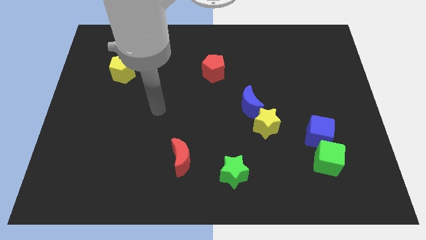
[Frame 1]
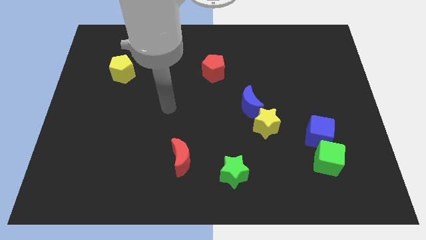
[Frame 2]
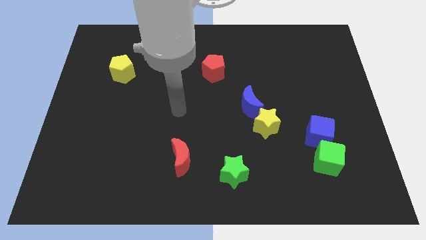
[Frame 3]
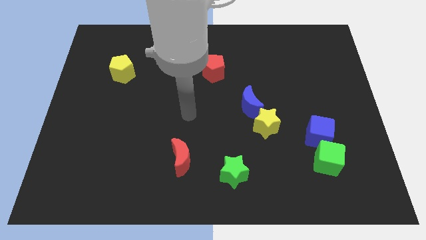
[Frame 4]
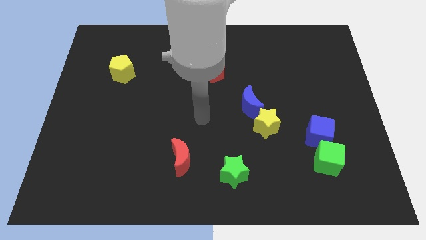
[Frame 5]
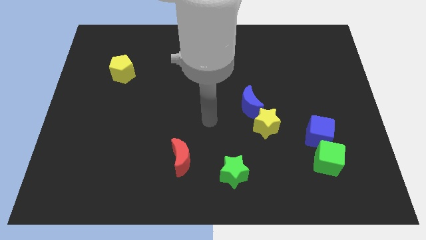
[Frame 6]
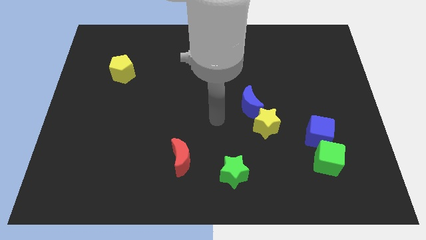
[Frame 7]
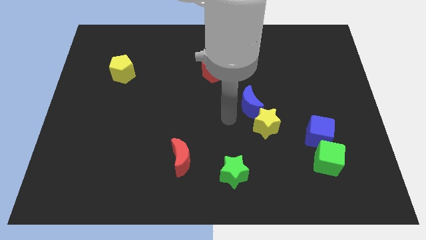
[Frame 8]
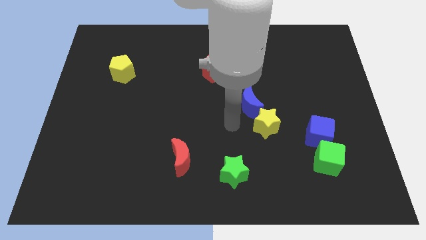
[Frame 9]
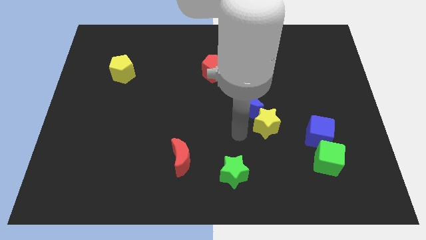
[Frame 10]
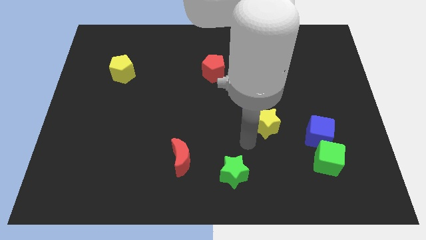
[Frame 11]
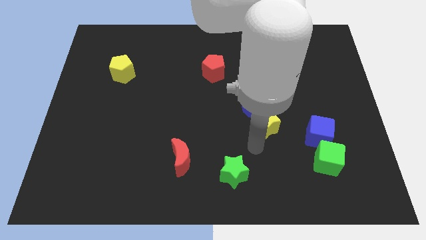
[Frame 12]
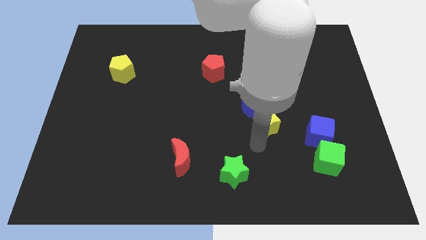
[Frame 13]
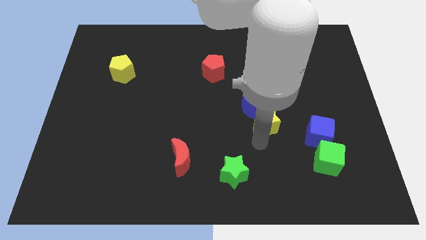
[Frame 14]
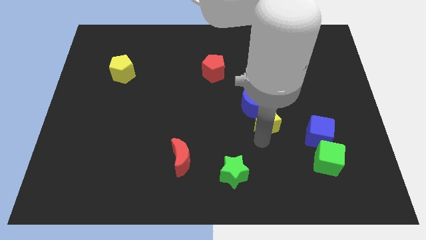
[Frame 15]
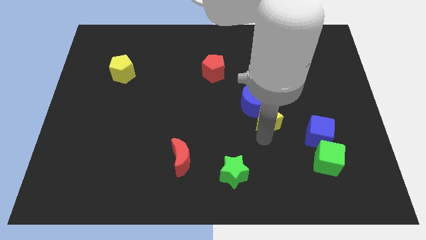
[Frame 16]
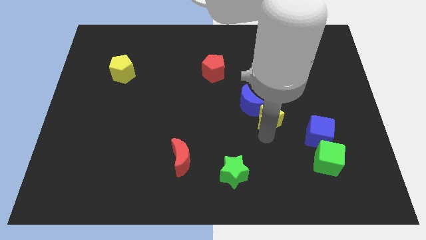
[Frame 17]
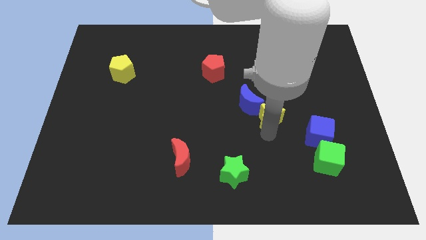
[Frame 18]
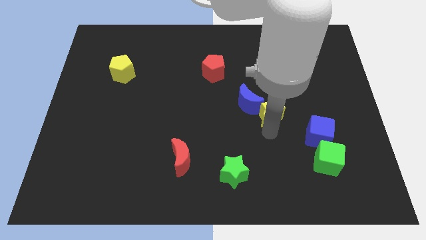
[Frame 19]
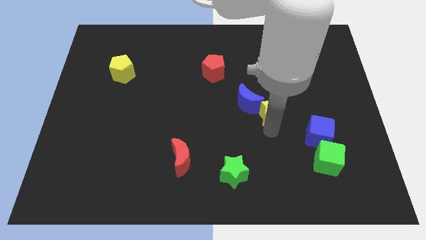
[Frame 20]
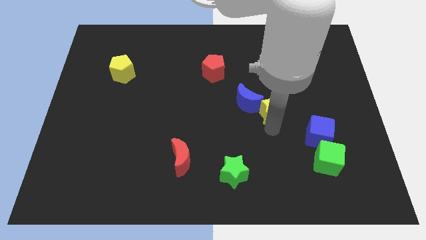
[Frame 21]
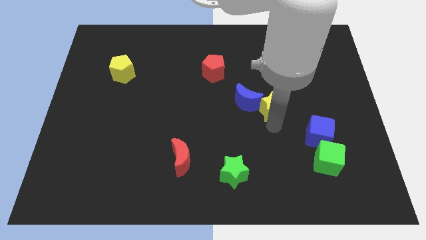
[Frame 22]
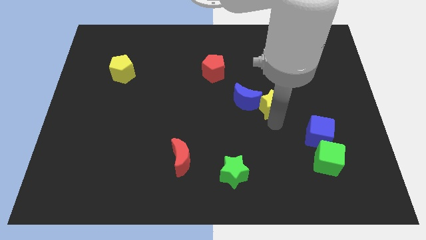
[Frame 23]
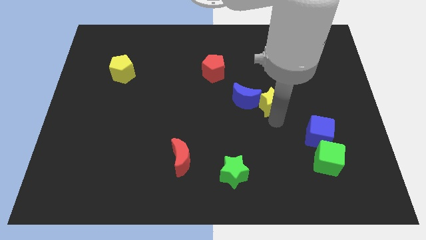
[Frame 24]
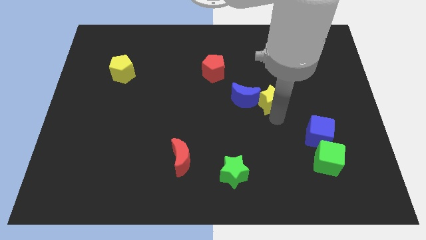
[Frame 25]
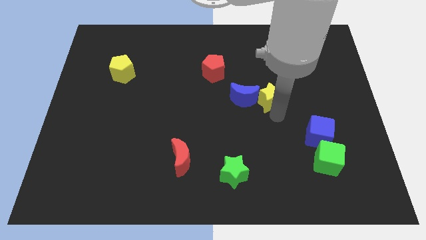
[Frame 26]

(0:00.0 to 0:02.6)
slightly slide the yellow star up

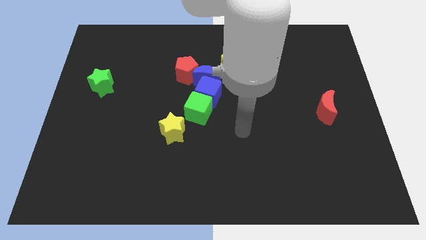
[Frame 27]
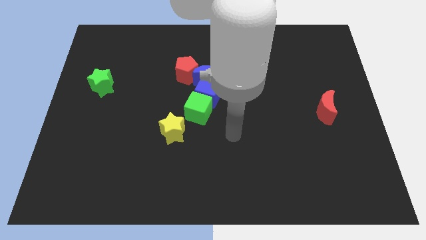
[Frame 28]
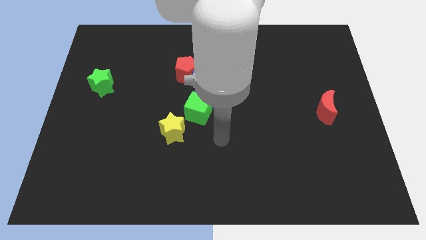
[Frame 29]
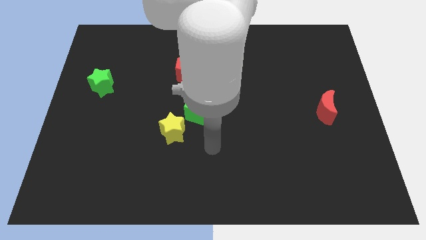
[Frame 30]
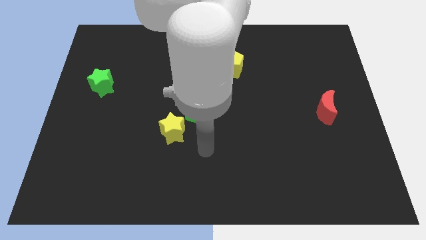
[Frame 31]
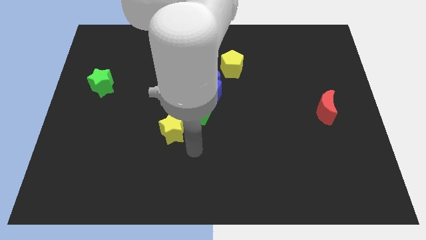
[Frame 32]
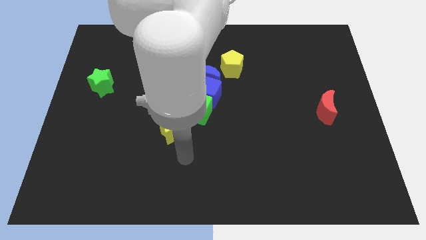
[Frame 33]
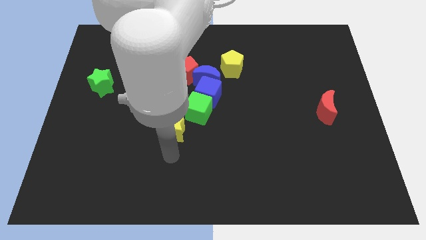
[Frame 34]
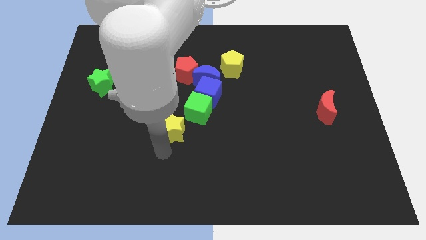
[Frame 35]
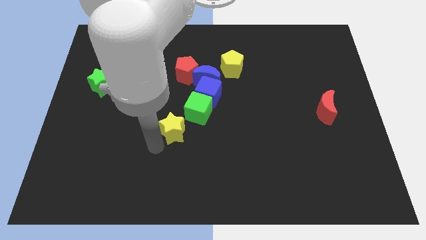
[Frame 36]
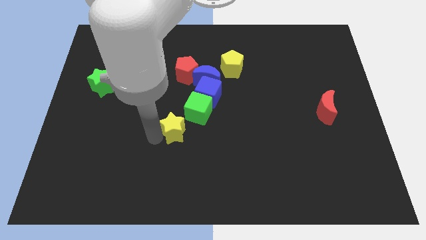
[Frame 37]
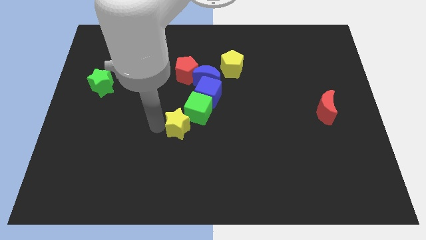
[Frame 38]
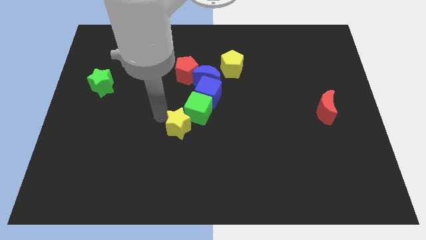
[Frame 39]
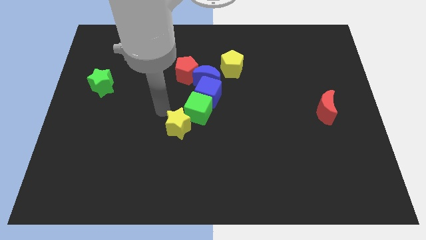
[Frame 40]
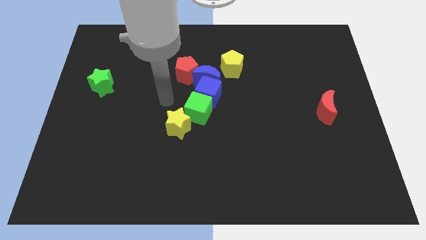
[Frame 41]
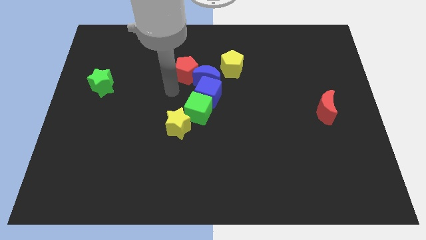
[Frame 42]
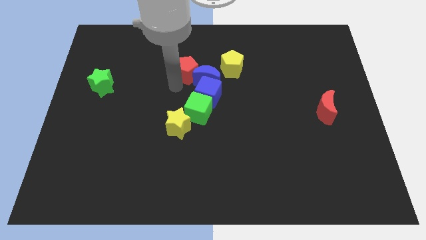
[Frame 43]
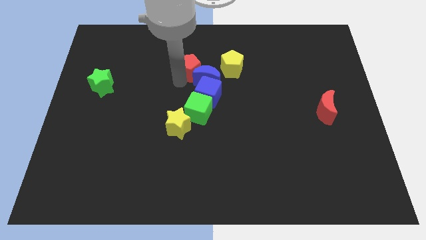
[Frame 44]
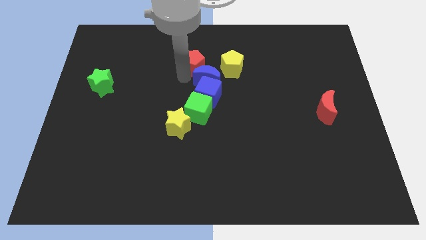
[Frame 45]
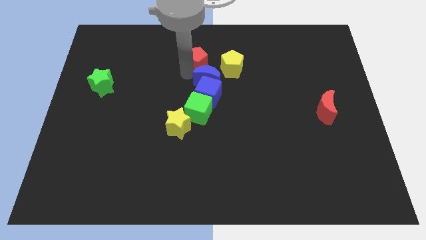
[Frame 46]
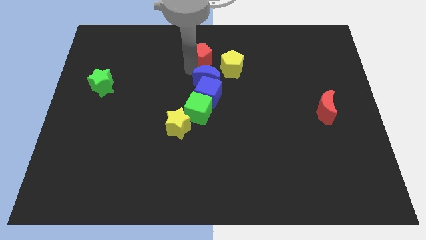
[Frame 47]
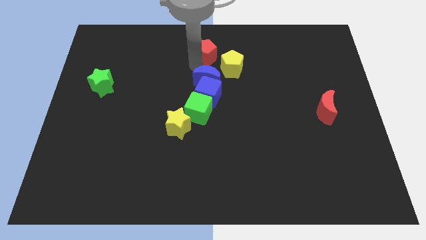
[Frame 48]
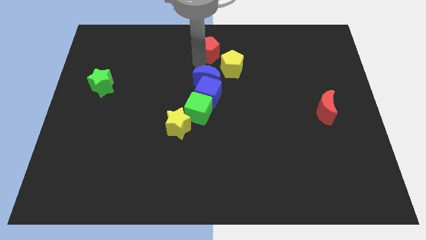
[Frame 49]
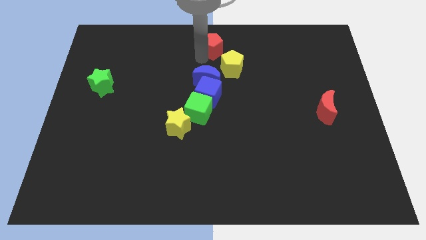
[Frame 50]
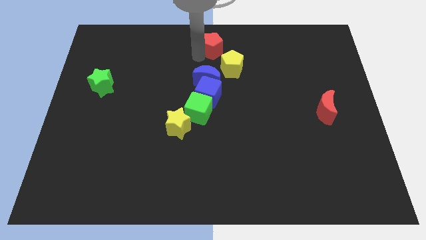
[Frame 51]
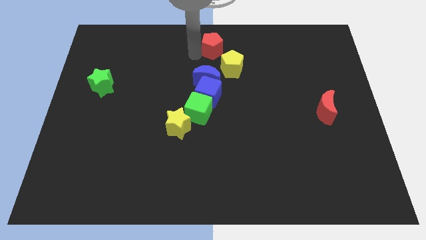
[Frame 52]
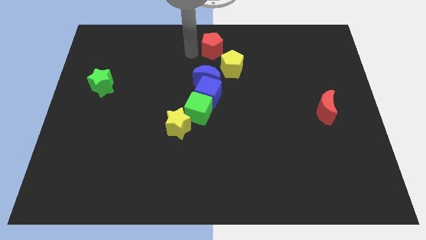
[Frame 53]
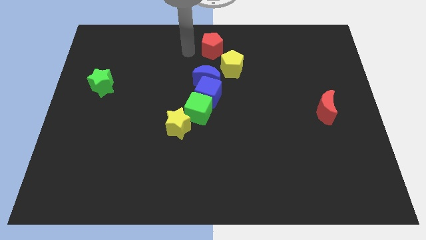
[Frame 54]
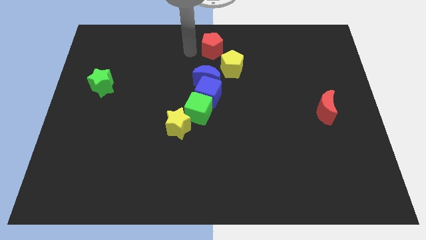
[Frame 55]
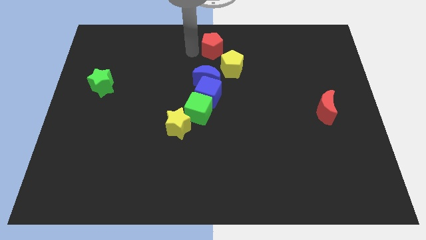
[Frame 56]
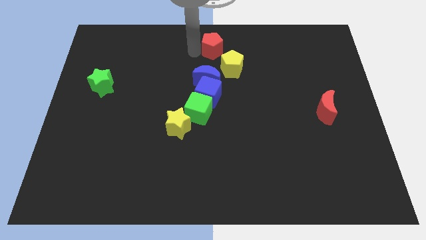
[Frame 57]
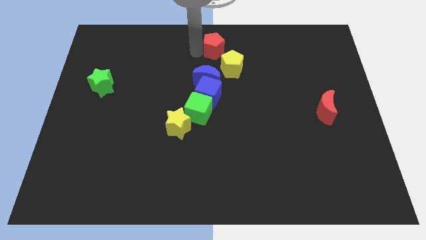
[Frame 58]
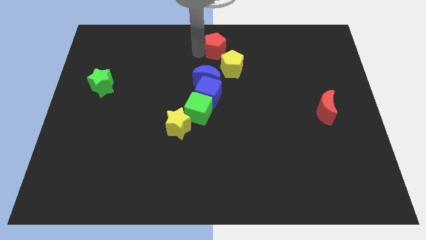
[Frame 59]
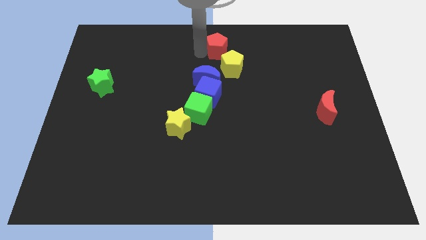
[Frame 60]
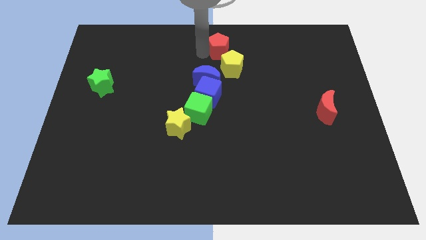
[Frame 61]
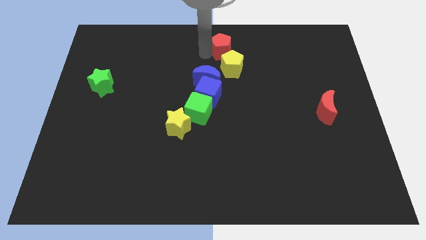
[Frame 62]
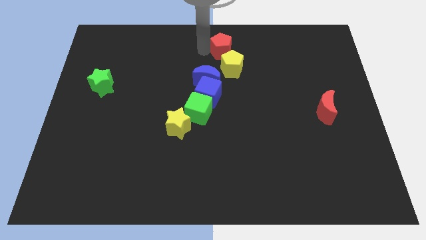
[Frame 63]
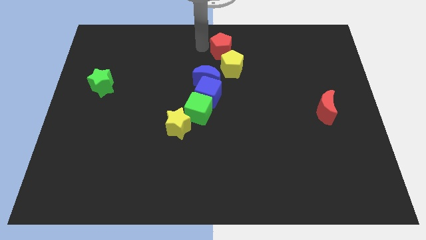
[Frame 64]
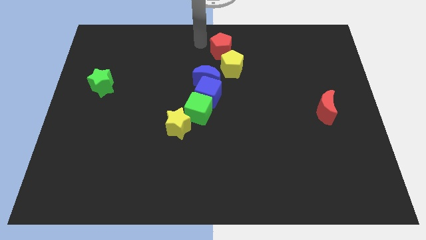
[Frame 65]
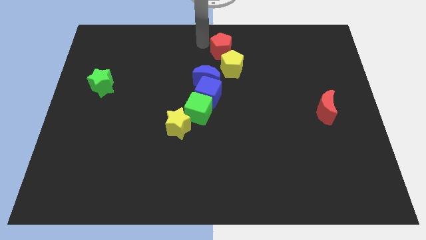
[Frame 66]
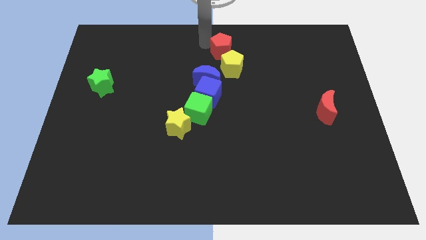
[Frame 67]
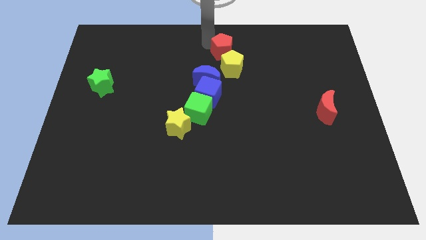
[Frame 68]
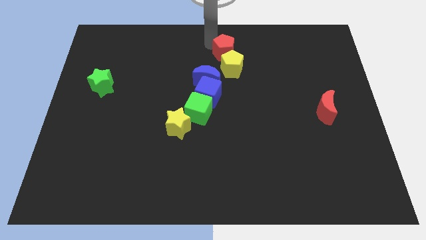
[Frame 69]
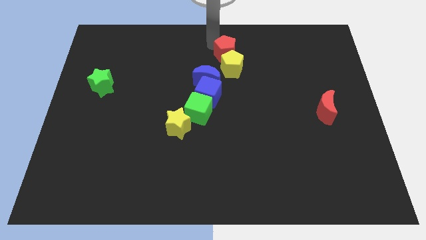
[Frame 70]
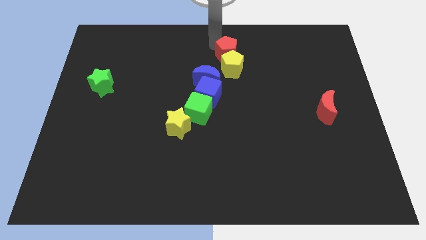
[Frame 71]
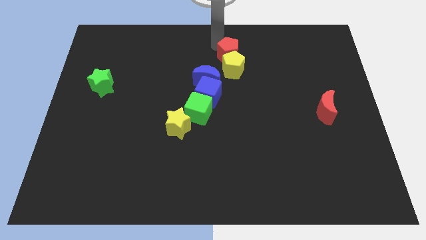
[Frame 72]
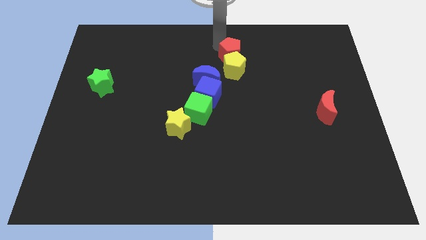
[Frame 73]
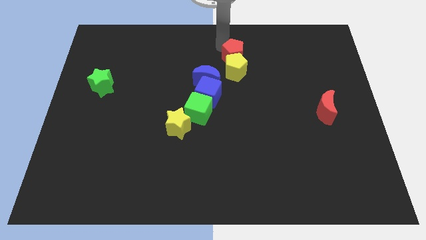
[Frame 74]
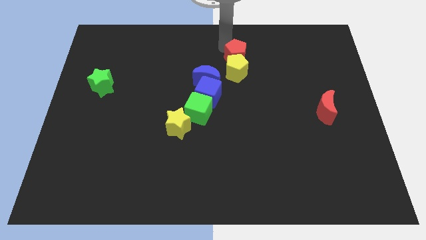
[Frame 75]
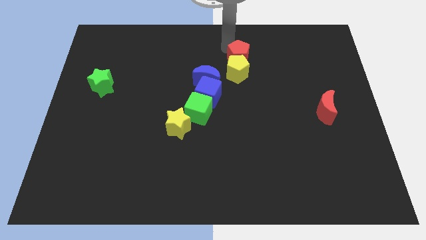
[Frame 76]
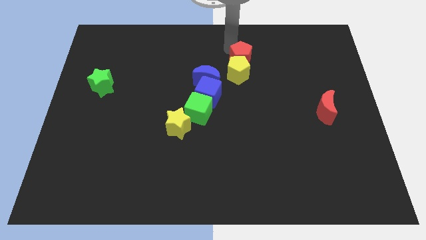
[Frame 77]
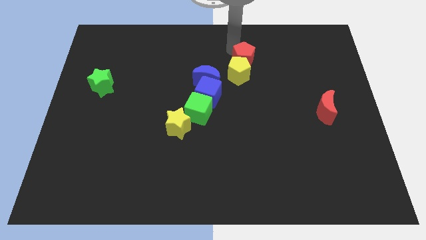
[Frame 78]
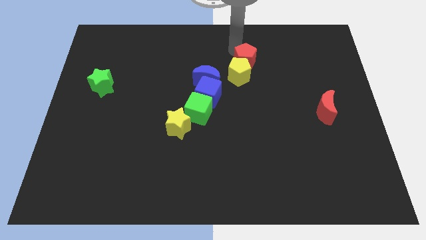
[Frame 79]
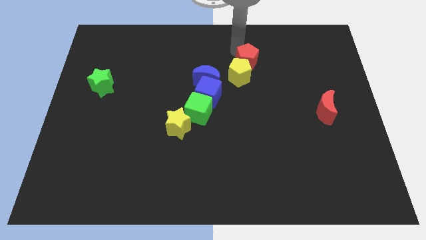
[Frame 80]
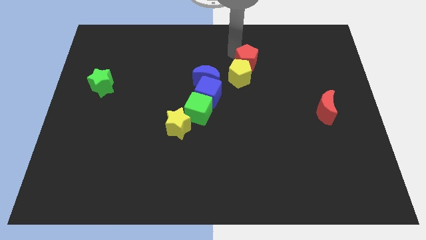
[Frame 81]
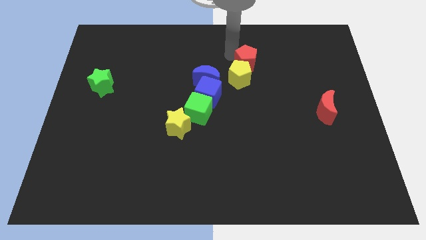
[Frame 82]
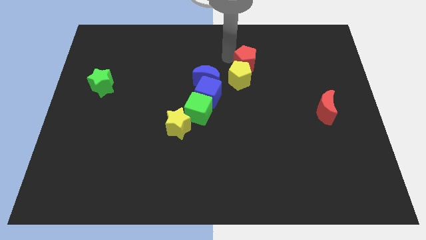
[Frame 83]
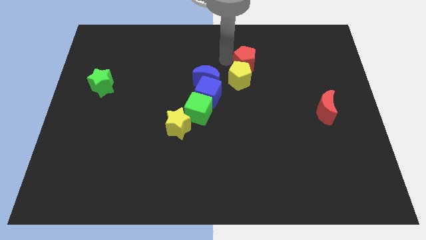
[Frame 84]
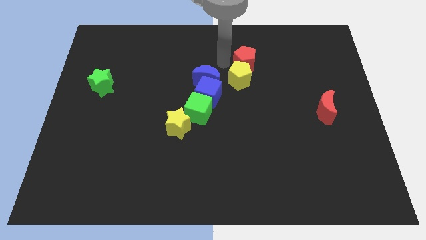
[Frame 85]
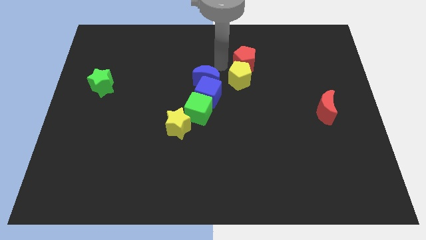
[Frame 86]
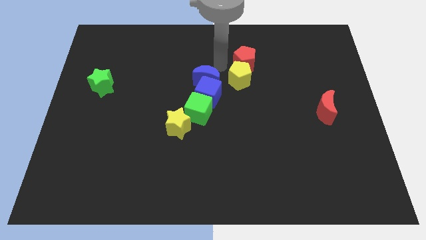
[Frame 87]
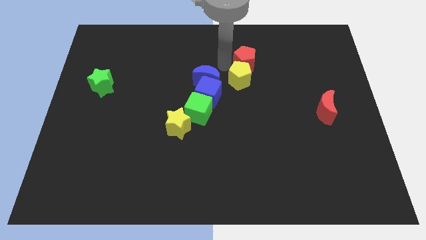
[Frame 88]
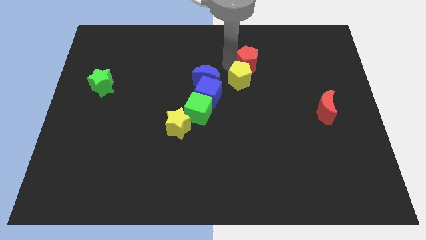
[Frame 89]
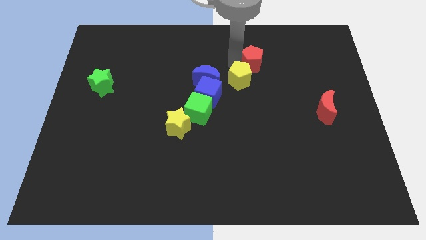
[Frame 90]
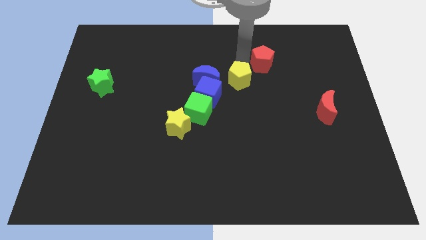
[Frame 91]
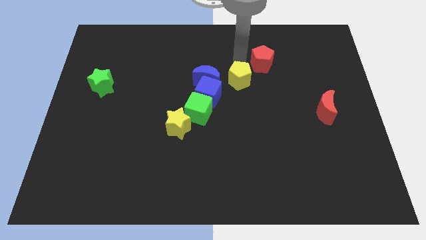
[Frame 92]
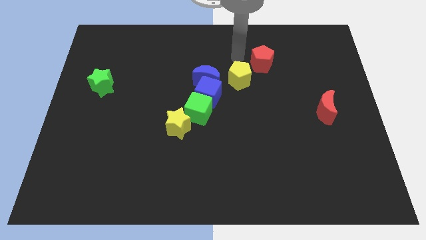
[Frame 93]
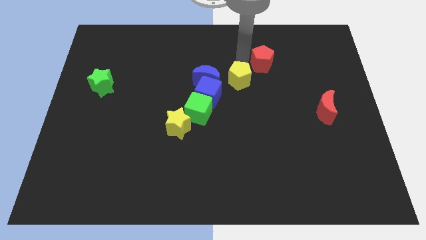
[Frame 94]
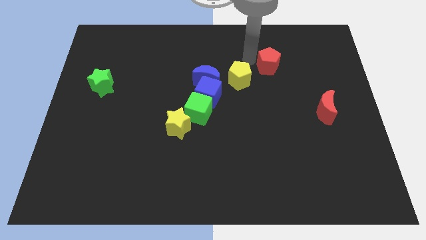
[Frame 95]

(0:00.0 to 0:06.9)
move the red pentagon right
